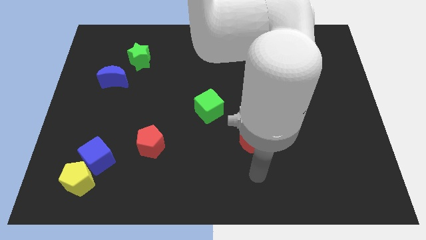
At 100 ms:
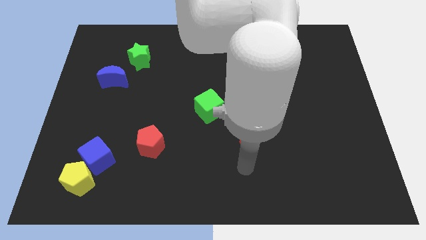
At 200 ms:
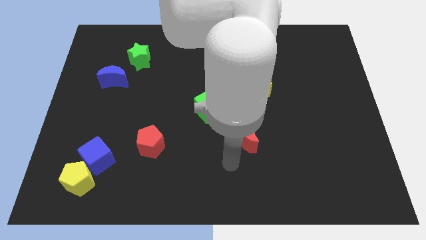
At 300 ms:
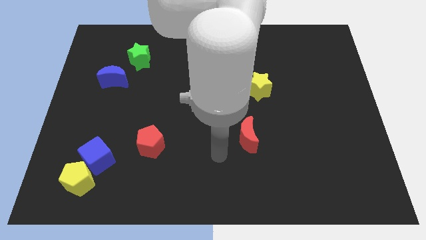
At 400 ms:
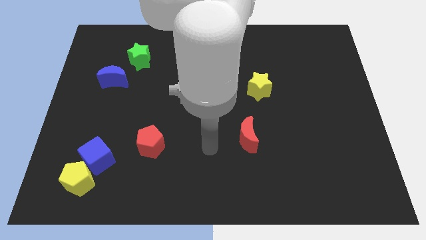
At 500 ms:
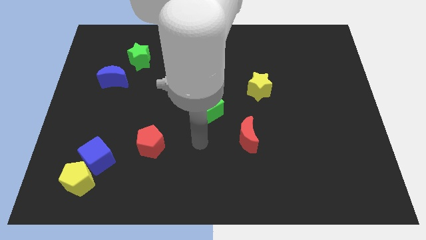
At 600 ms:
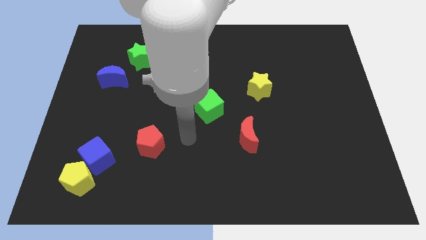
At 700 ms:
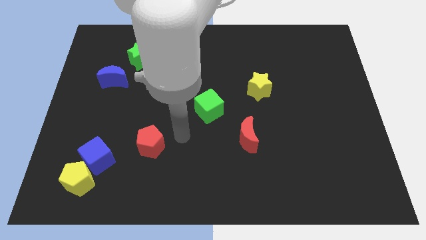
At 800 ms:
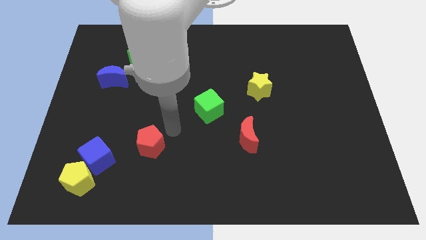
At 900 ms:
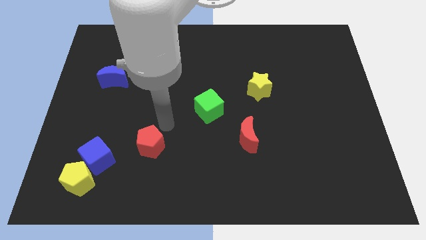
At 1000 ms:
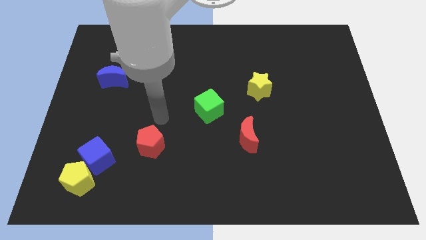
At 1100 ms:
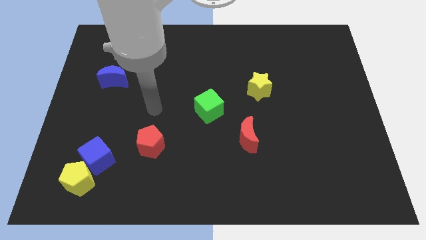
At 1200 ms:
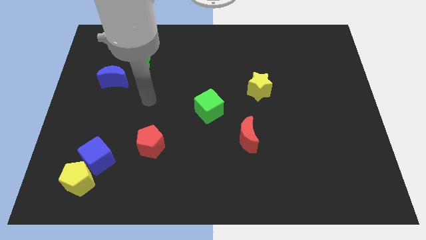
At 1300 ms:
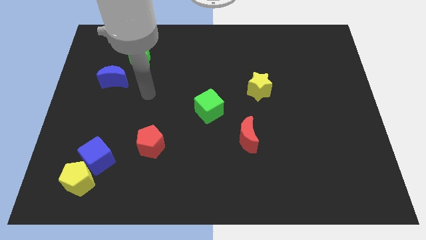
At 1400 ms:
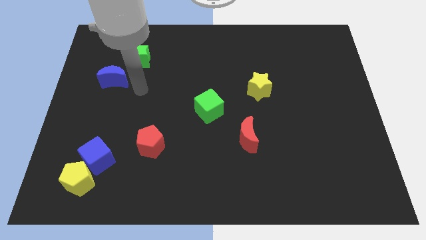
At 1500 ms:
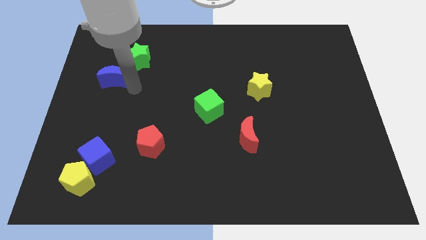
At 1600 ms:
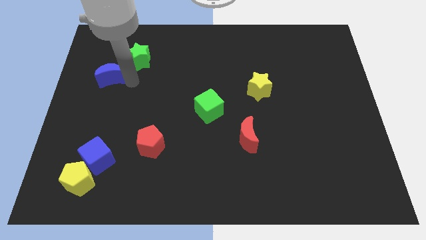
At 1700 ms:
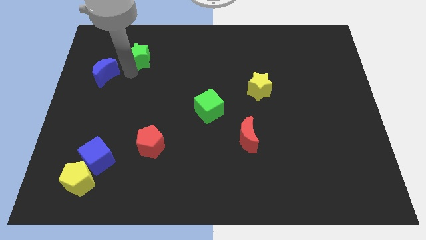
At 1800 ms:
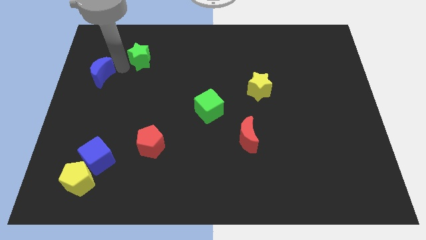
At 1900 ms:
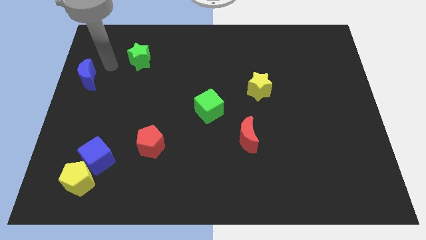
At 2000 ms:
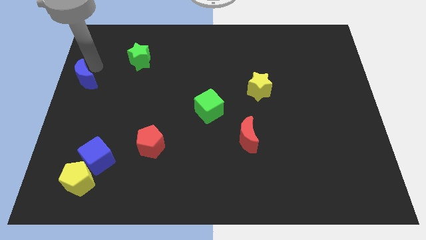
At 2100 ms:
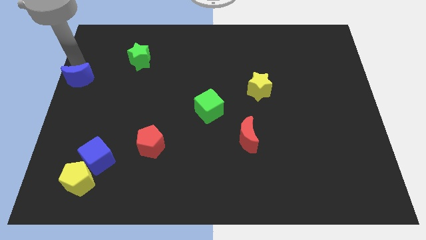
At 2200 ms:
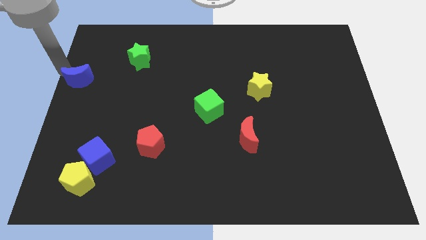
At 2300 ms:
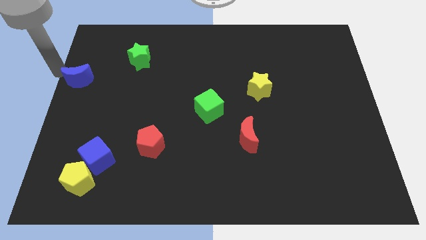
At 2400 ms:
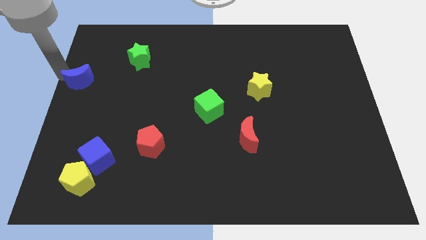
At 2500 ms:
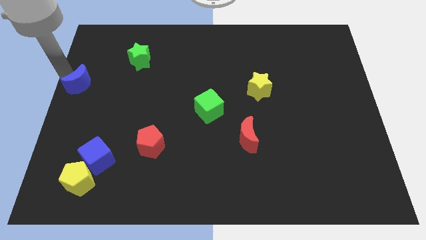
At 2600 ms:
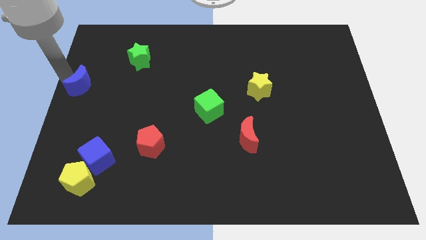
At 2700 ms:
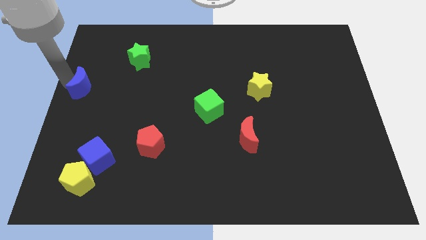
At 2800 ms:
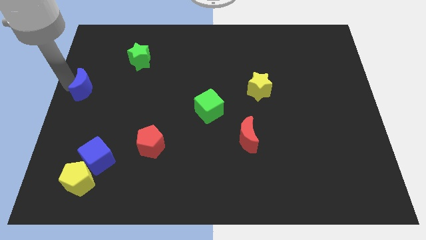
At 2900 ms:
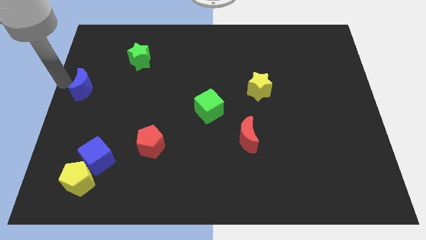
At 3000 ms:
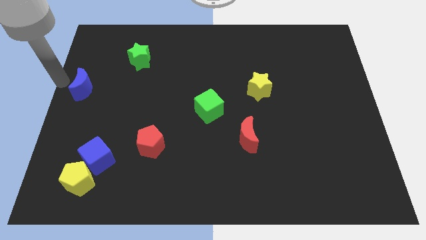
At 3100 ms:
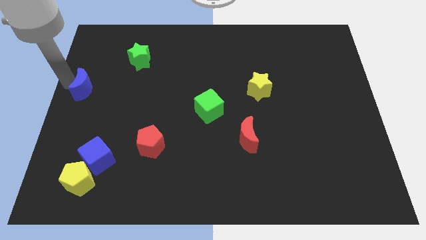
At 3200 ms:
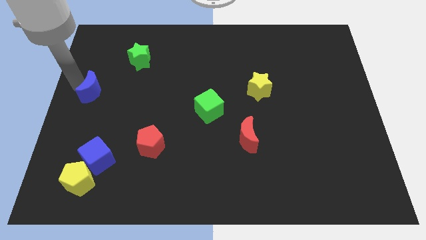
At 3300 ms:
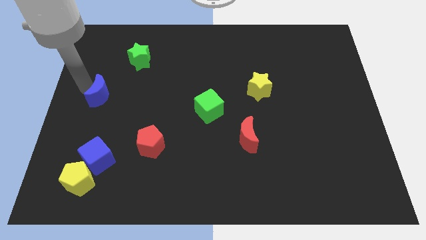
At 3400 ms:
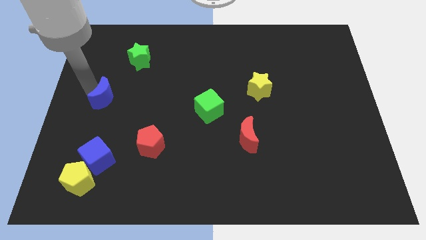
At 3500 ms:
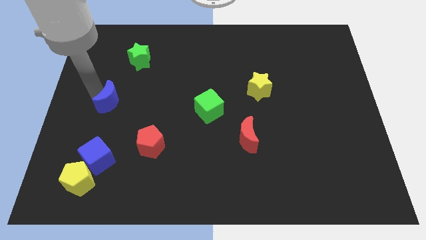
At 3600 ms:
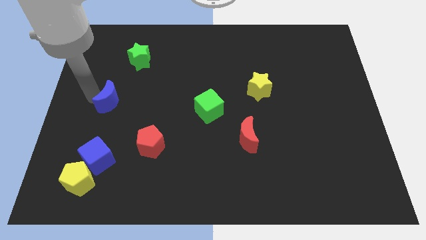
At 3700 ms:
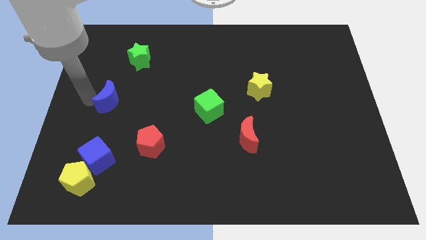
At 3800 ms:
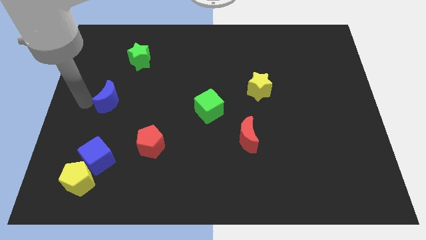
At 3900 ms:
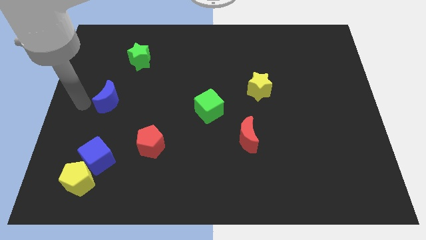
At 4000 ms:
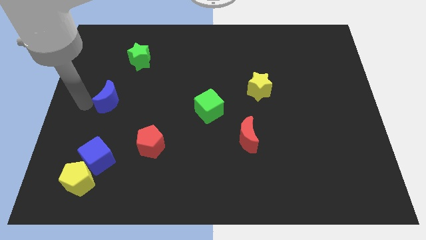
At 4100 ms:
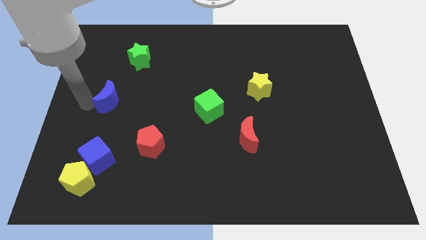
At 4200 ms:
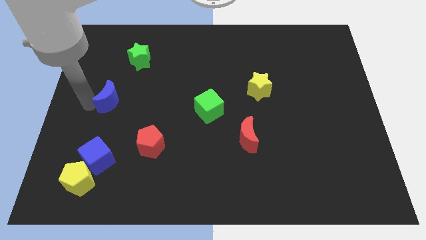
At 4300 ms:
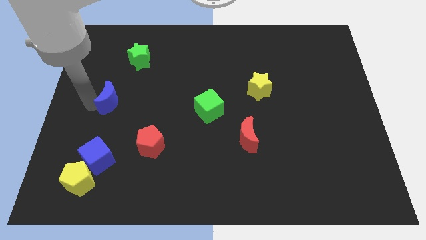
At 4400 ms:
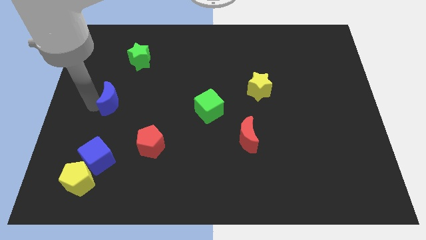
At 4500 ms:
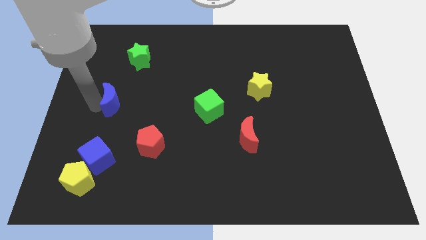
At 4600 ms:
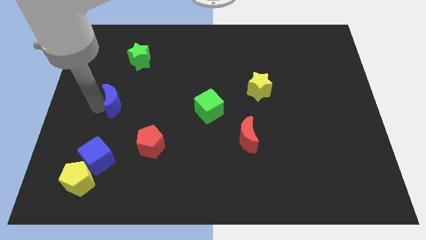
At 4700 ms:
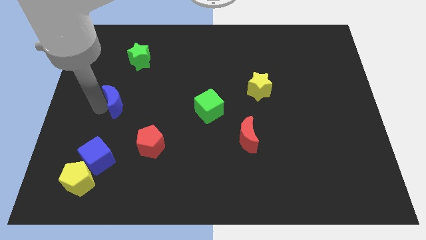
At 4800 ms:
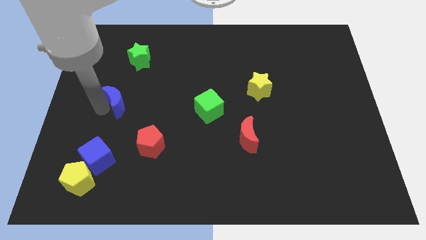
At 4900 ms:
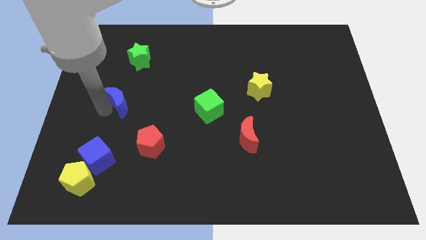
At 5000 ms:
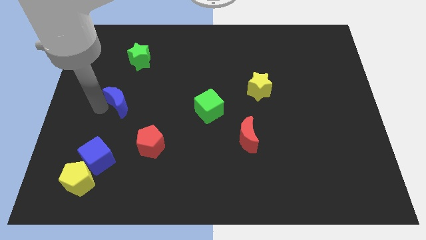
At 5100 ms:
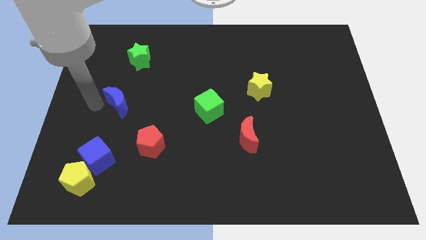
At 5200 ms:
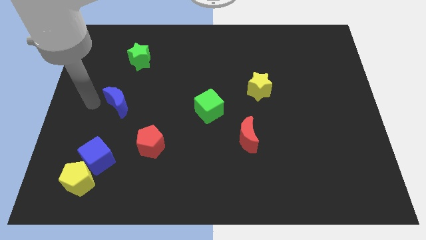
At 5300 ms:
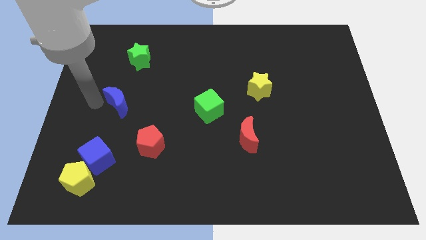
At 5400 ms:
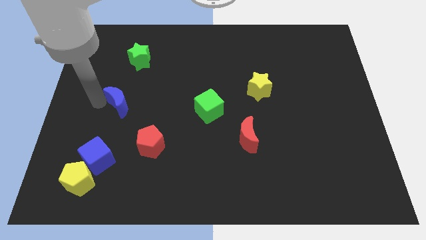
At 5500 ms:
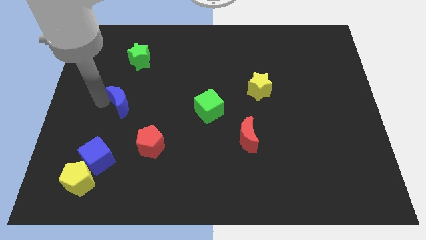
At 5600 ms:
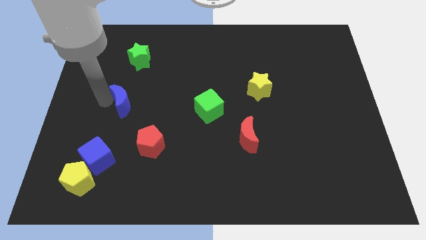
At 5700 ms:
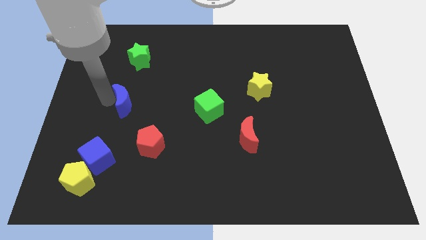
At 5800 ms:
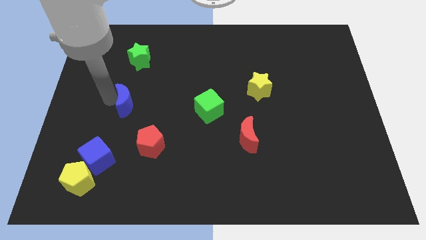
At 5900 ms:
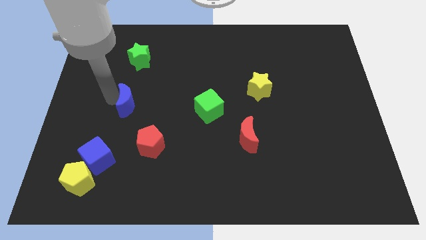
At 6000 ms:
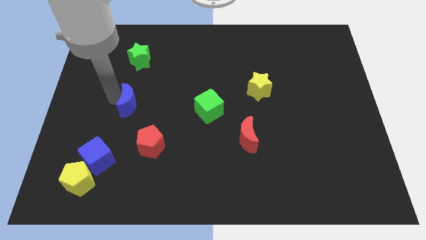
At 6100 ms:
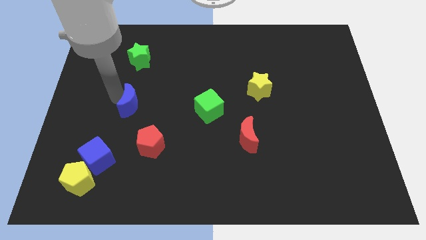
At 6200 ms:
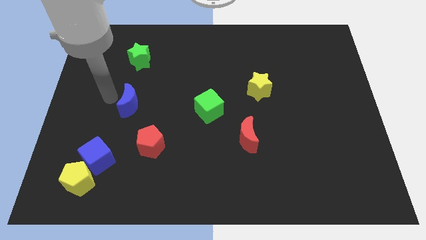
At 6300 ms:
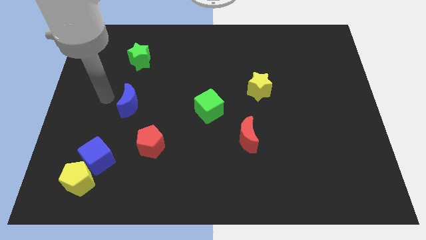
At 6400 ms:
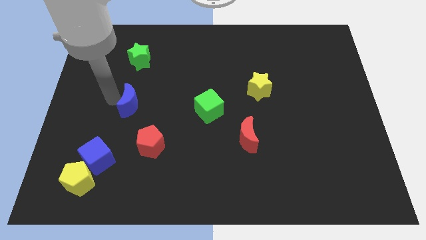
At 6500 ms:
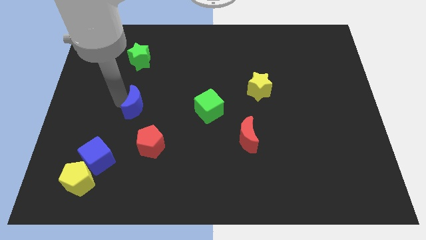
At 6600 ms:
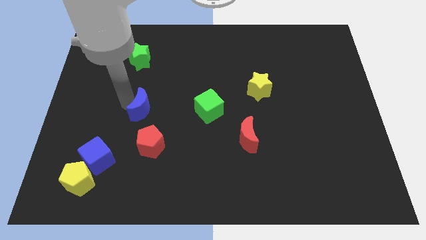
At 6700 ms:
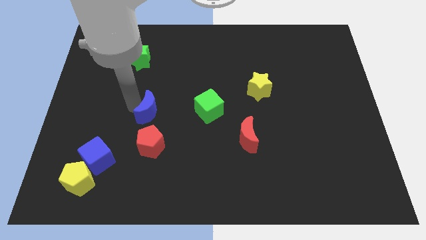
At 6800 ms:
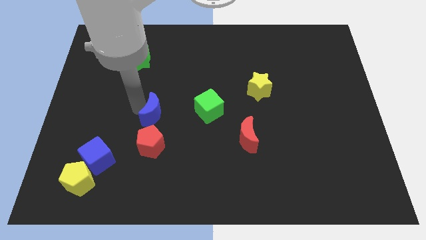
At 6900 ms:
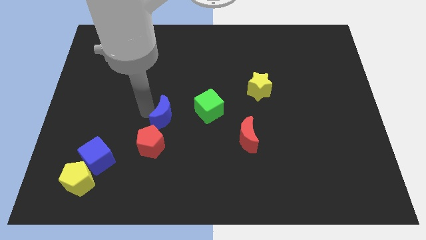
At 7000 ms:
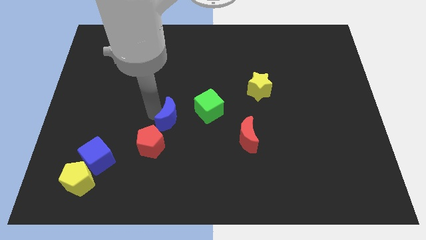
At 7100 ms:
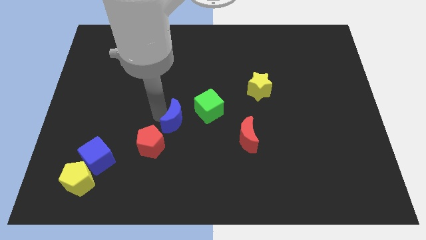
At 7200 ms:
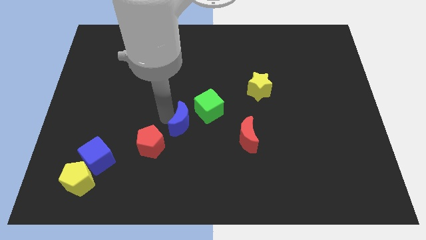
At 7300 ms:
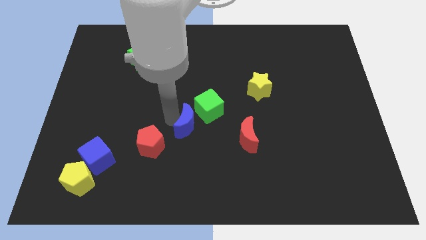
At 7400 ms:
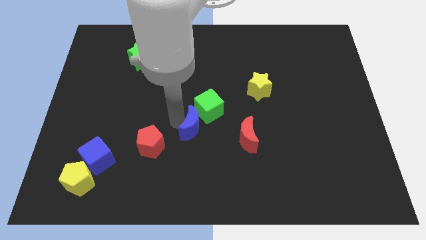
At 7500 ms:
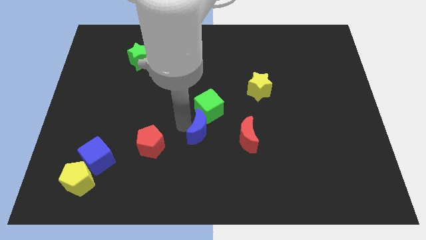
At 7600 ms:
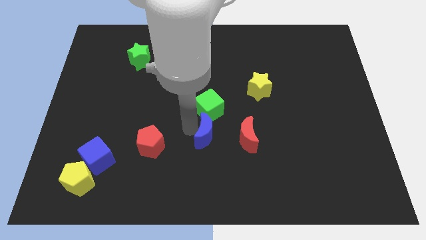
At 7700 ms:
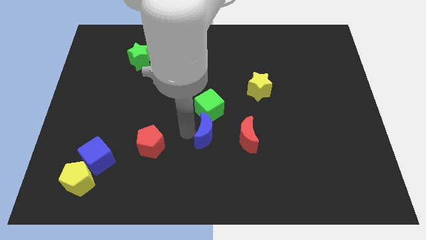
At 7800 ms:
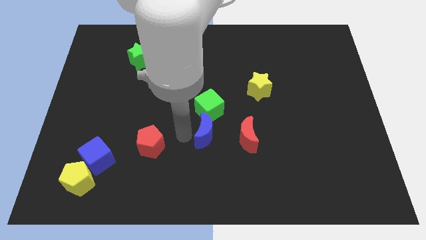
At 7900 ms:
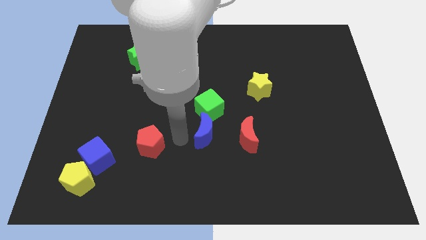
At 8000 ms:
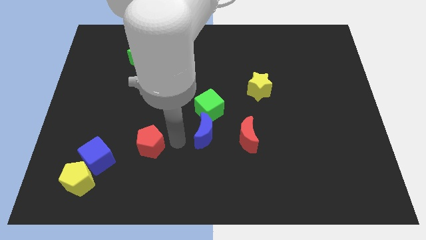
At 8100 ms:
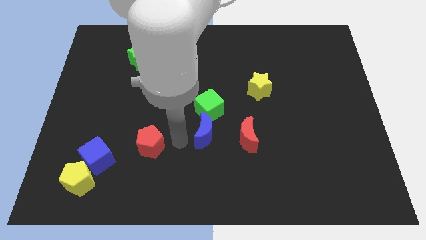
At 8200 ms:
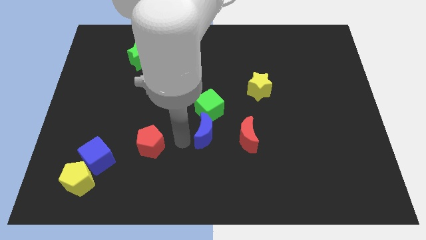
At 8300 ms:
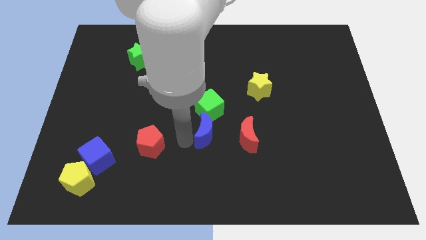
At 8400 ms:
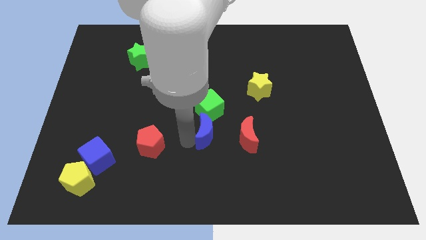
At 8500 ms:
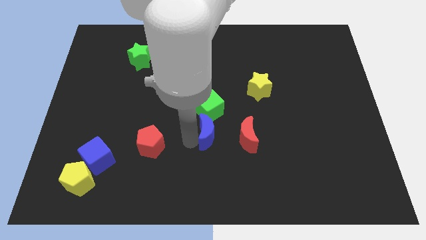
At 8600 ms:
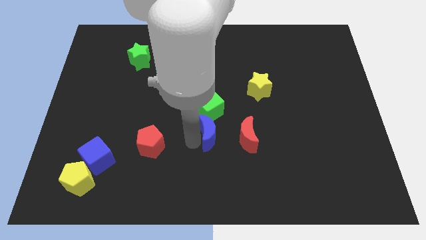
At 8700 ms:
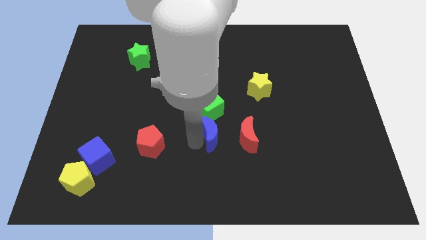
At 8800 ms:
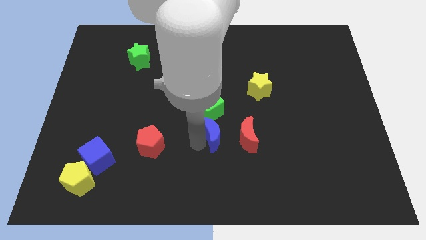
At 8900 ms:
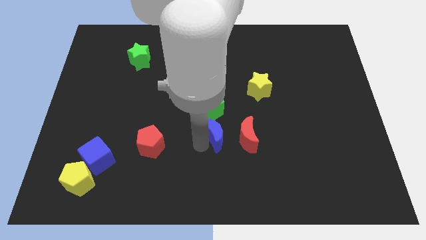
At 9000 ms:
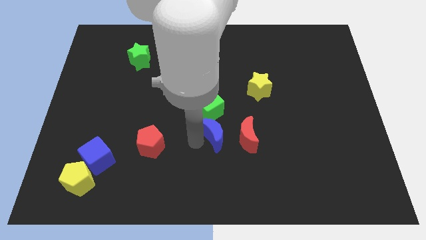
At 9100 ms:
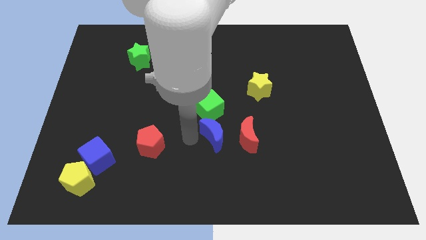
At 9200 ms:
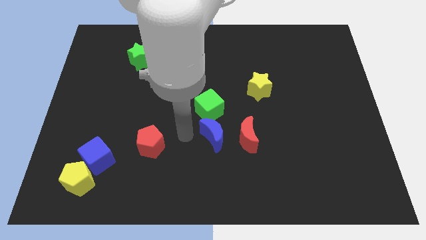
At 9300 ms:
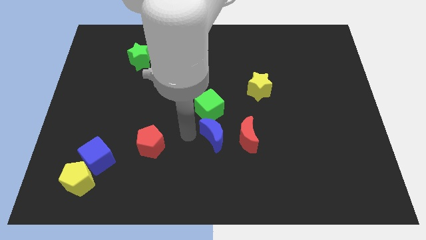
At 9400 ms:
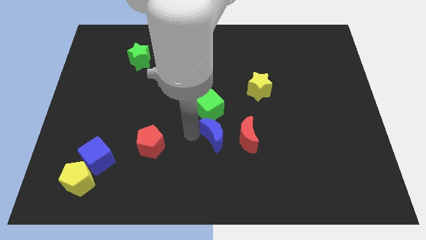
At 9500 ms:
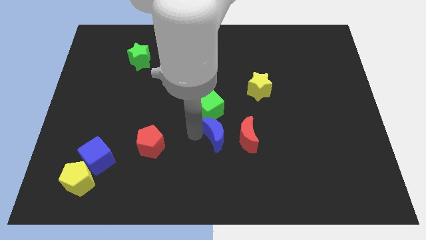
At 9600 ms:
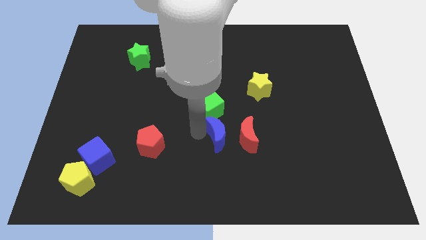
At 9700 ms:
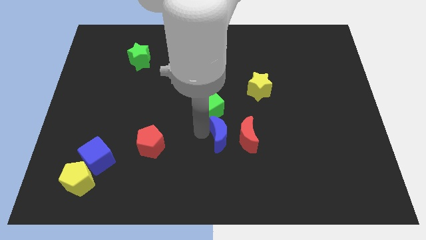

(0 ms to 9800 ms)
put the blue moon towards the red moon
